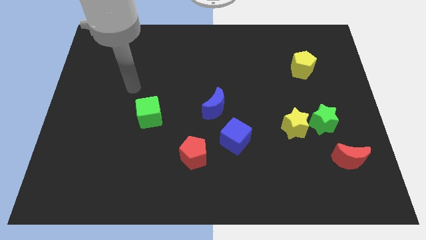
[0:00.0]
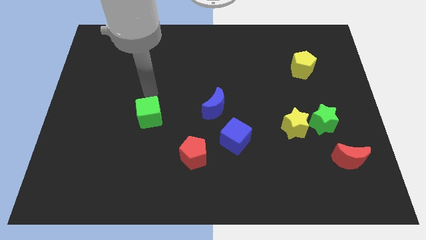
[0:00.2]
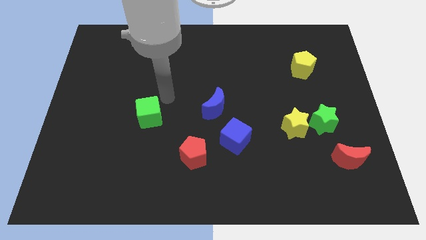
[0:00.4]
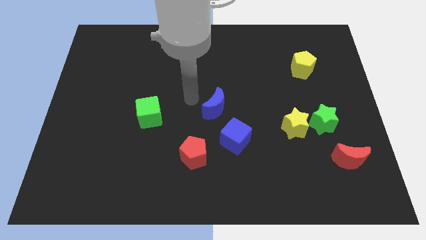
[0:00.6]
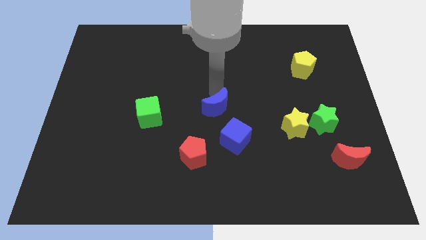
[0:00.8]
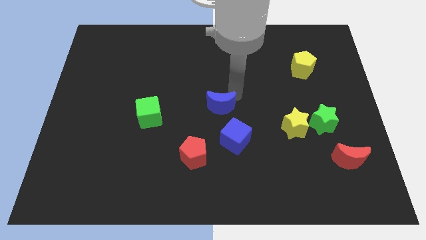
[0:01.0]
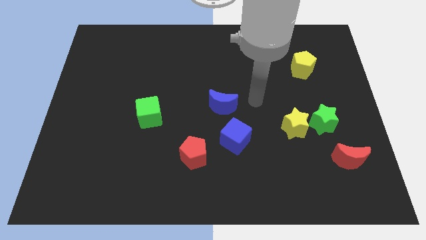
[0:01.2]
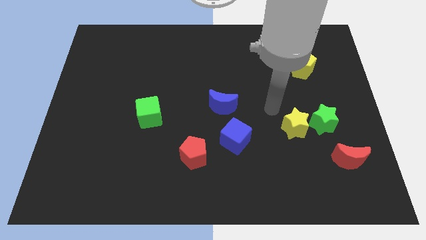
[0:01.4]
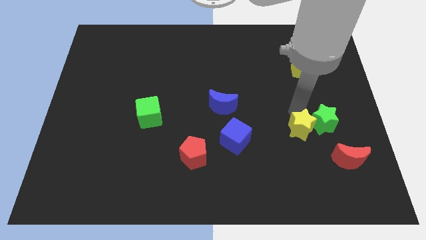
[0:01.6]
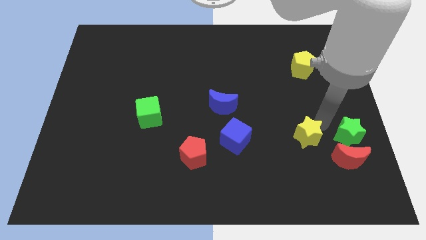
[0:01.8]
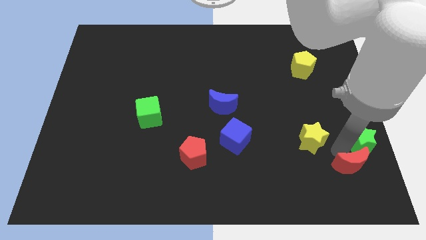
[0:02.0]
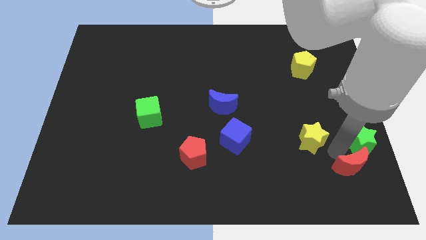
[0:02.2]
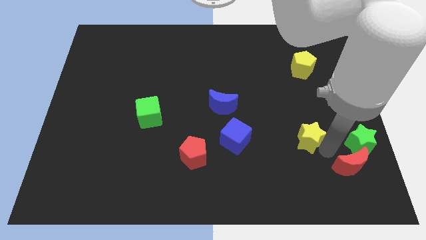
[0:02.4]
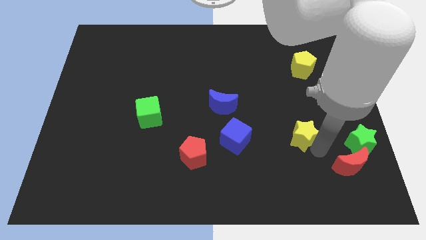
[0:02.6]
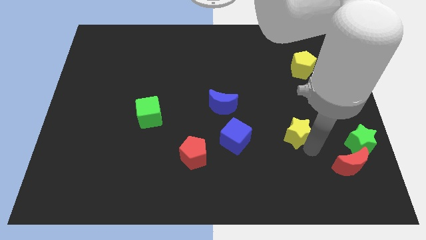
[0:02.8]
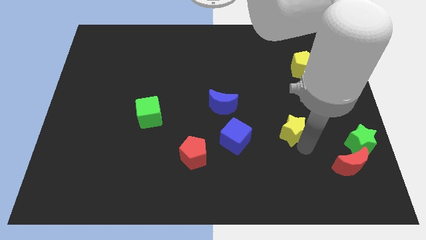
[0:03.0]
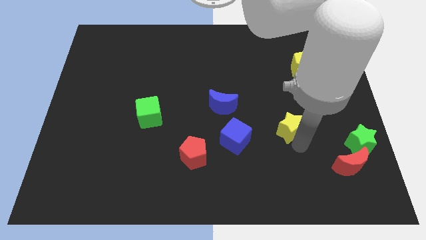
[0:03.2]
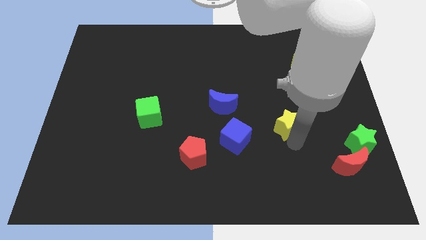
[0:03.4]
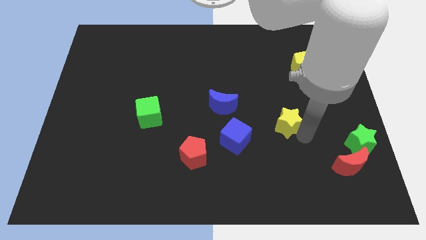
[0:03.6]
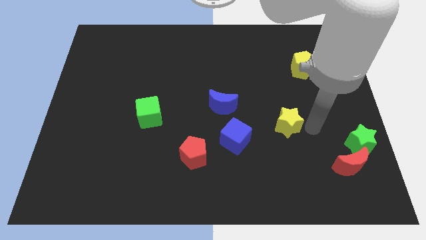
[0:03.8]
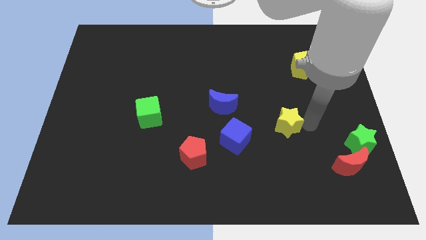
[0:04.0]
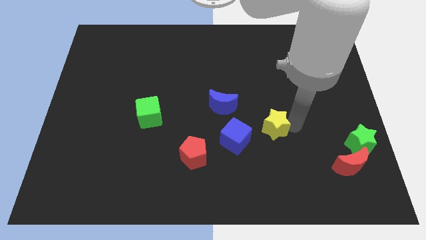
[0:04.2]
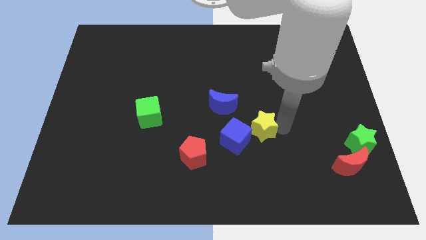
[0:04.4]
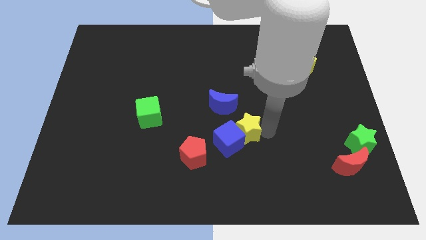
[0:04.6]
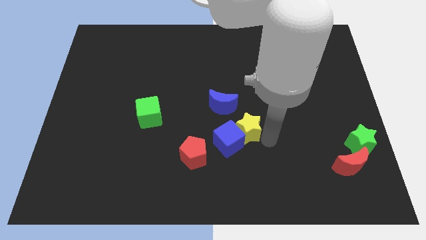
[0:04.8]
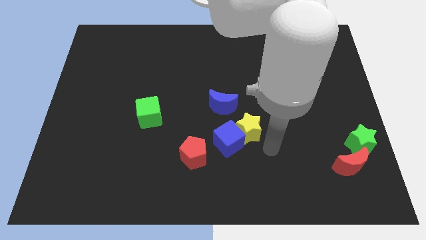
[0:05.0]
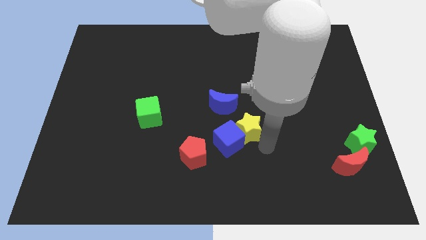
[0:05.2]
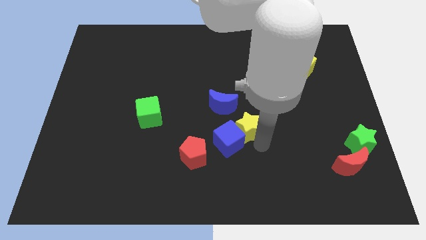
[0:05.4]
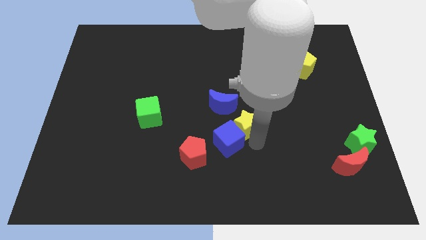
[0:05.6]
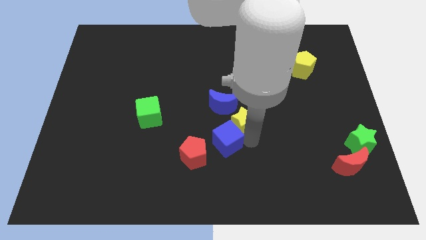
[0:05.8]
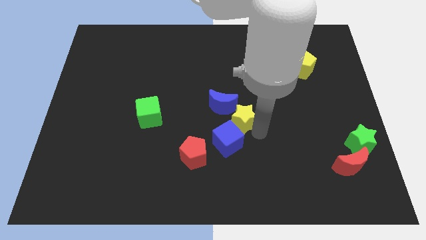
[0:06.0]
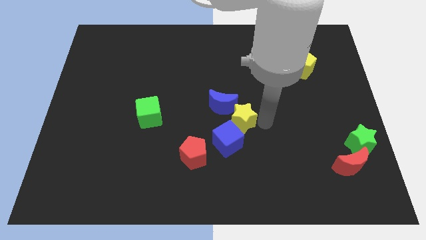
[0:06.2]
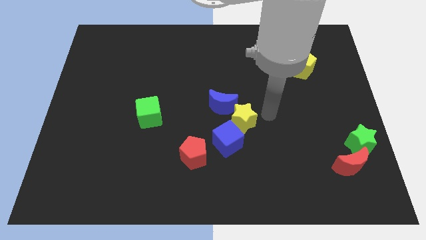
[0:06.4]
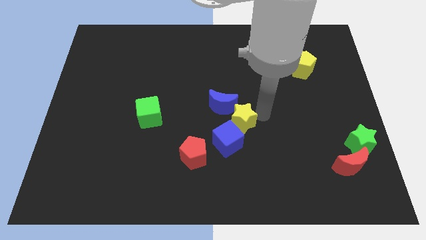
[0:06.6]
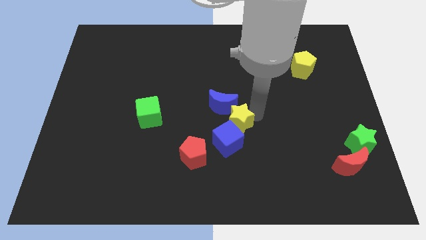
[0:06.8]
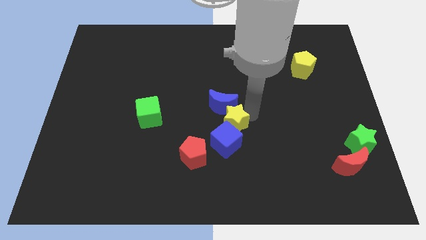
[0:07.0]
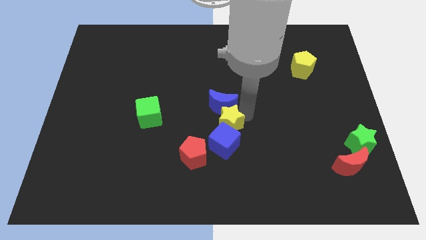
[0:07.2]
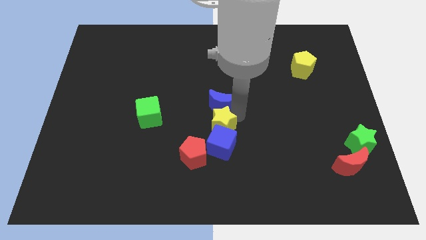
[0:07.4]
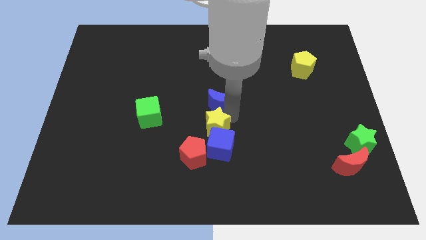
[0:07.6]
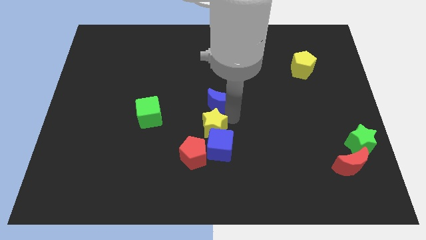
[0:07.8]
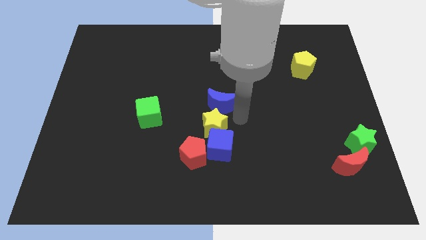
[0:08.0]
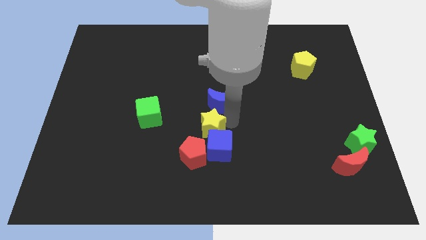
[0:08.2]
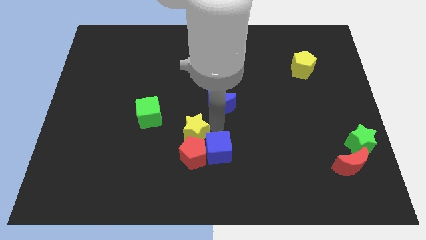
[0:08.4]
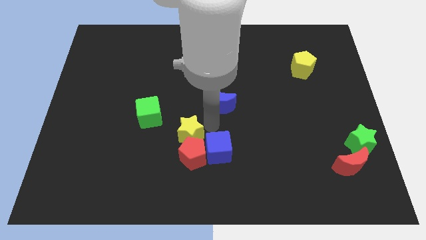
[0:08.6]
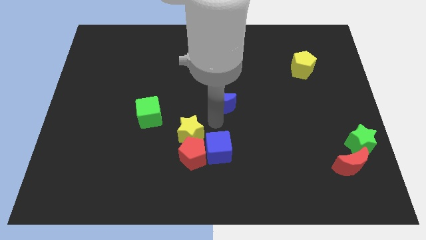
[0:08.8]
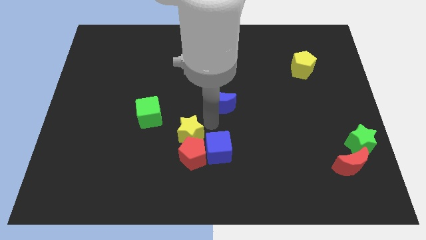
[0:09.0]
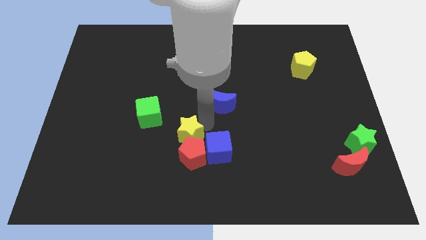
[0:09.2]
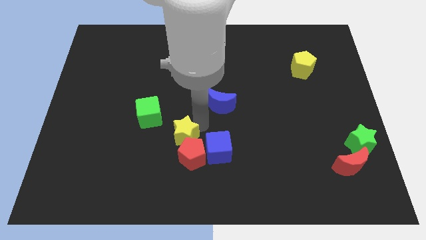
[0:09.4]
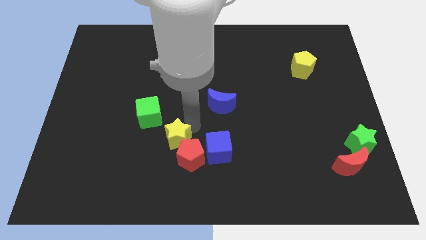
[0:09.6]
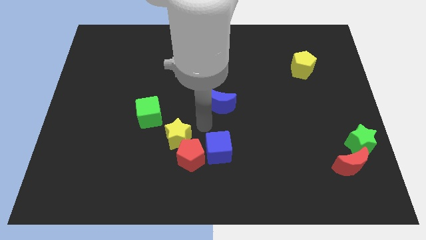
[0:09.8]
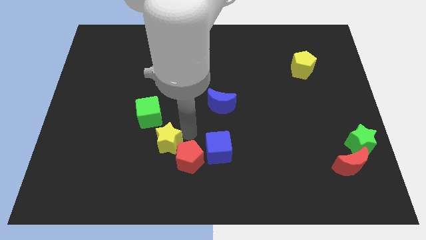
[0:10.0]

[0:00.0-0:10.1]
put the yellow star to the left of the red pentagon

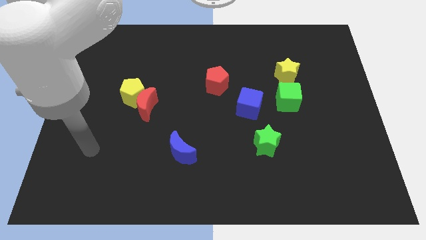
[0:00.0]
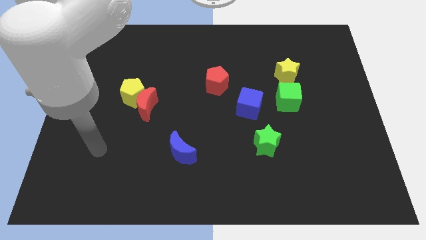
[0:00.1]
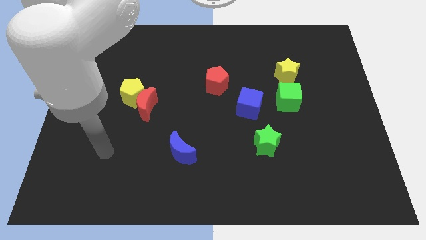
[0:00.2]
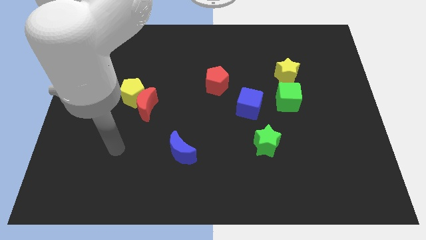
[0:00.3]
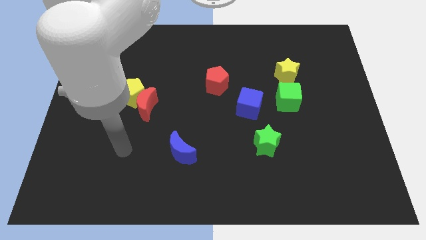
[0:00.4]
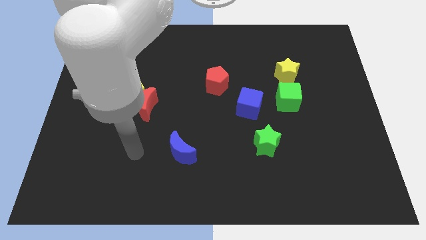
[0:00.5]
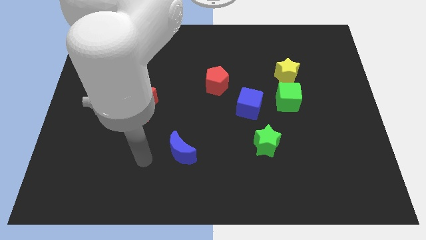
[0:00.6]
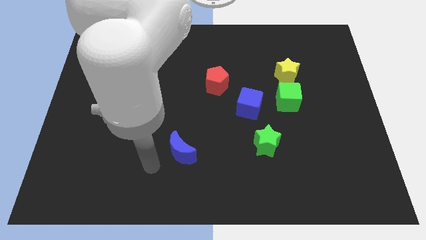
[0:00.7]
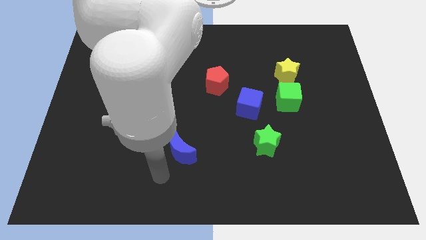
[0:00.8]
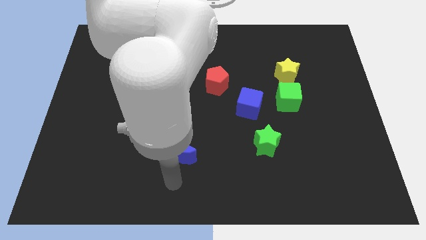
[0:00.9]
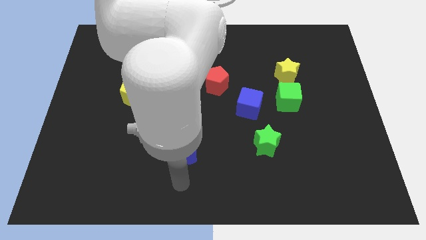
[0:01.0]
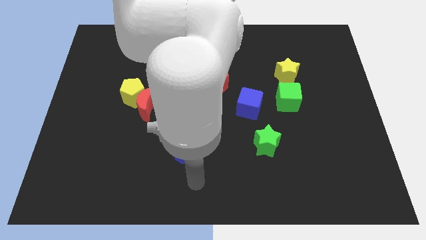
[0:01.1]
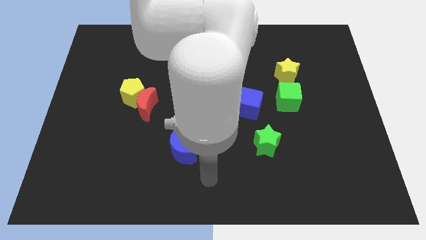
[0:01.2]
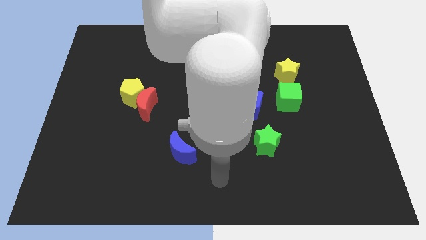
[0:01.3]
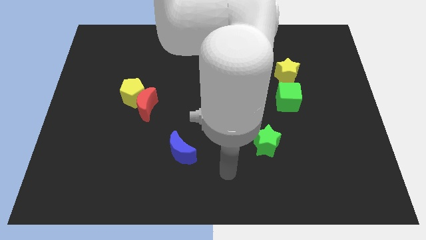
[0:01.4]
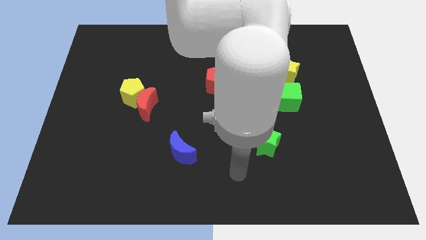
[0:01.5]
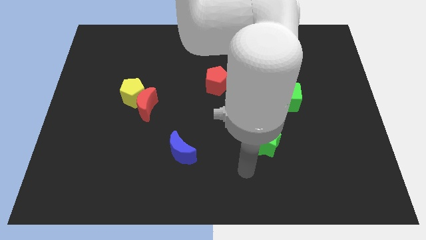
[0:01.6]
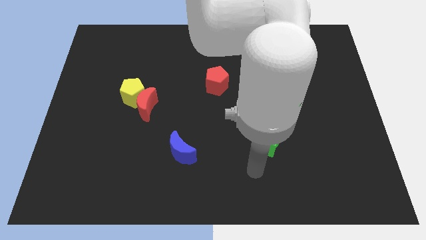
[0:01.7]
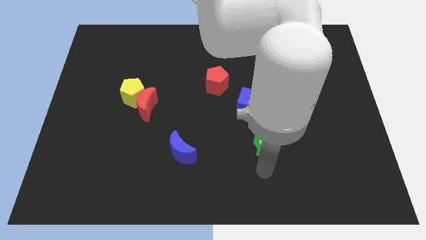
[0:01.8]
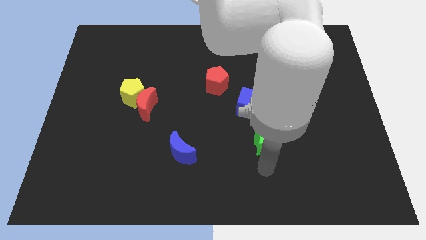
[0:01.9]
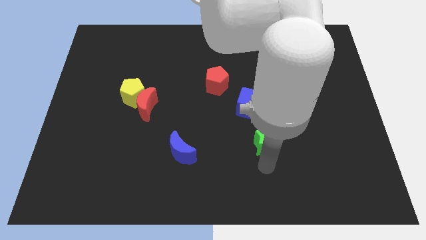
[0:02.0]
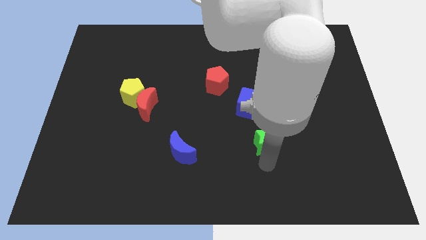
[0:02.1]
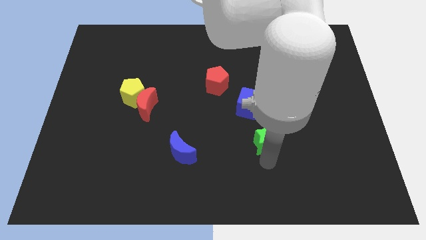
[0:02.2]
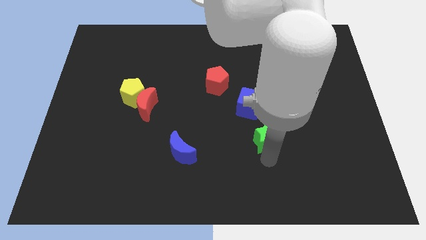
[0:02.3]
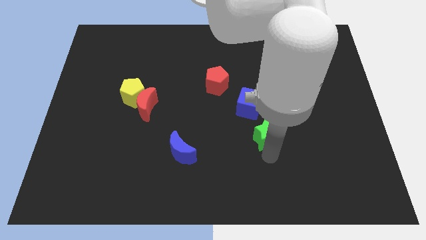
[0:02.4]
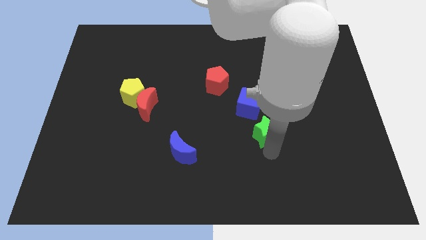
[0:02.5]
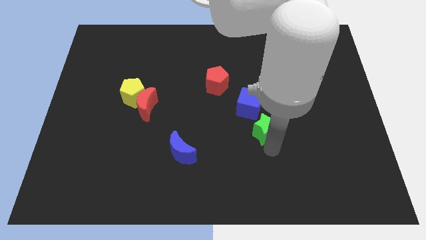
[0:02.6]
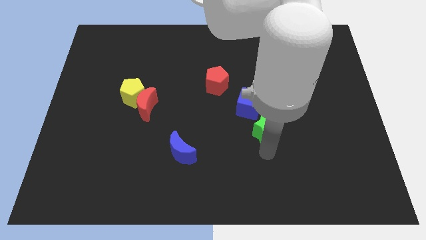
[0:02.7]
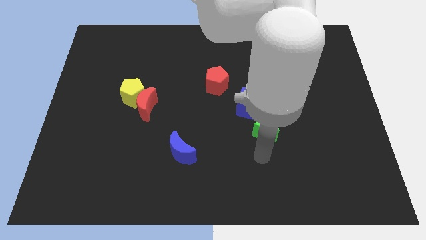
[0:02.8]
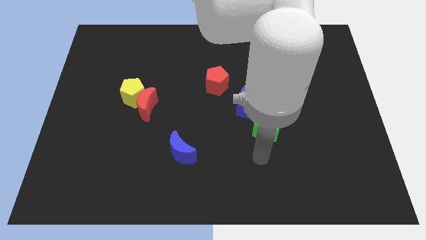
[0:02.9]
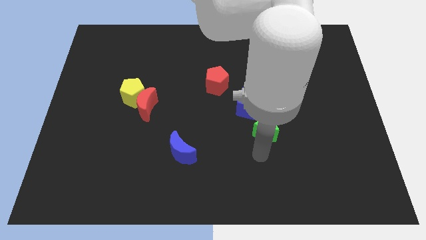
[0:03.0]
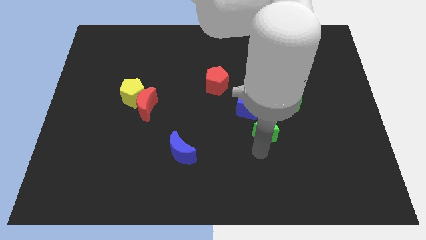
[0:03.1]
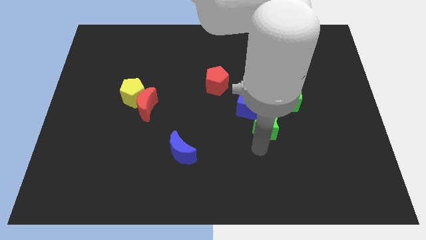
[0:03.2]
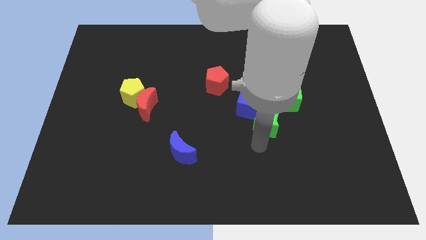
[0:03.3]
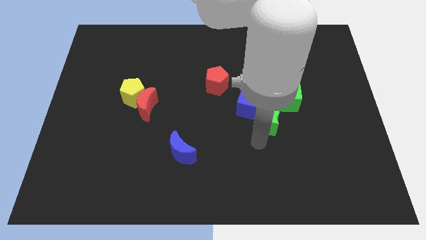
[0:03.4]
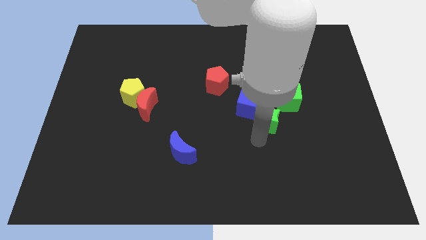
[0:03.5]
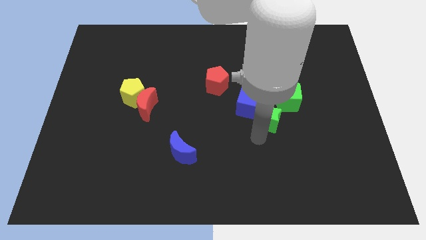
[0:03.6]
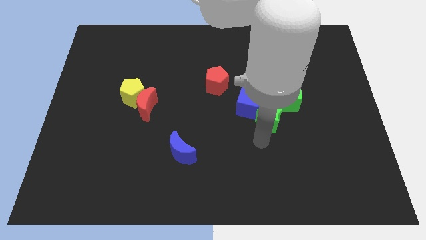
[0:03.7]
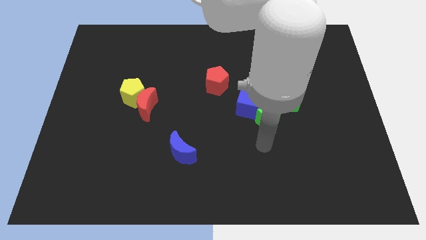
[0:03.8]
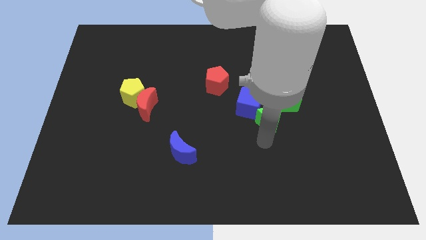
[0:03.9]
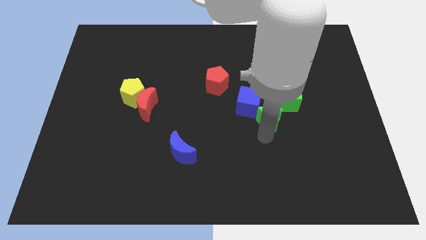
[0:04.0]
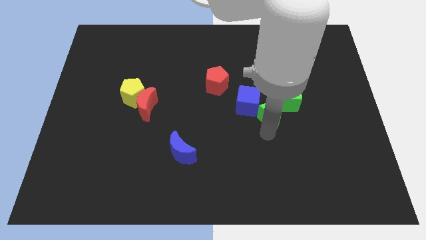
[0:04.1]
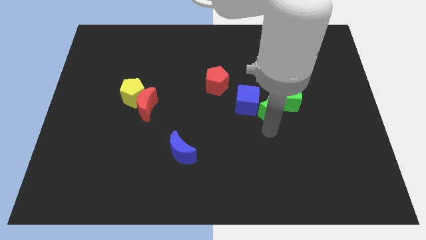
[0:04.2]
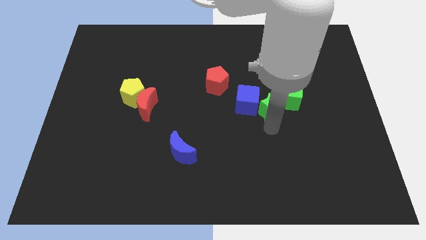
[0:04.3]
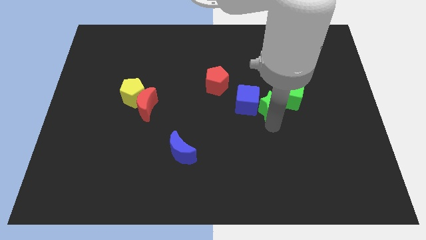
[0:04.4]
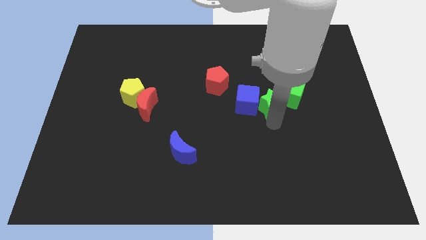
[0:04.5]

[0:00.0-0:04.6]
move the green star diagonally down and to the left of the yellow star
